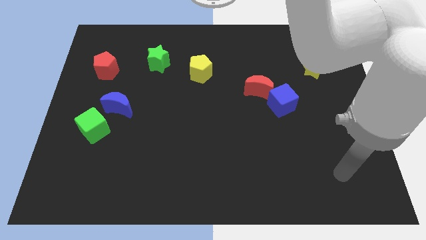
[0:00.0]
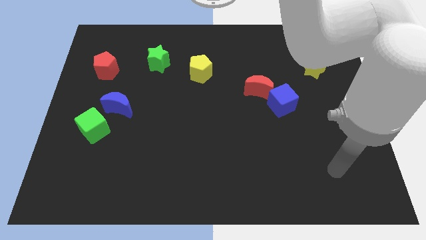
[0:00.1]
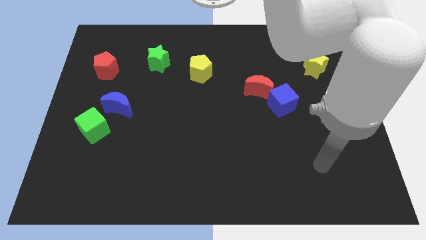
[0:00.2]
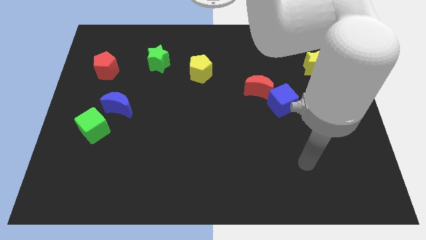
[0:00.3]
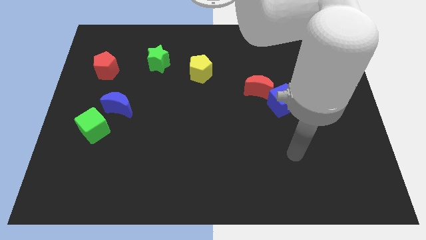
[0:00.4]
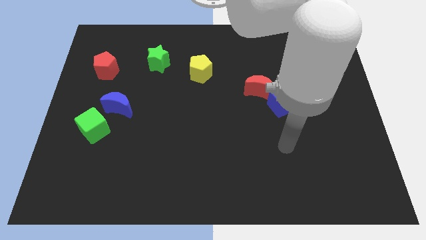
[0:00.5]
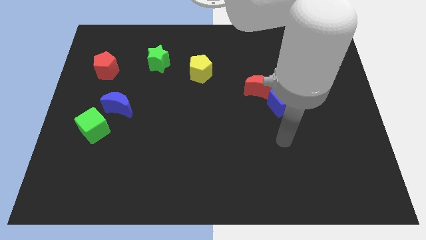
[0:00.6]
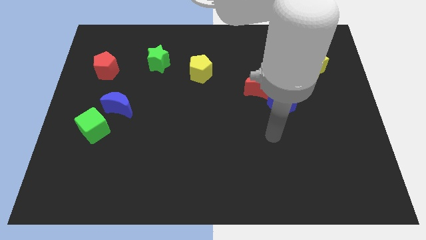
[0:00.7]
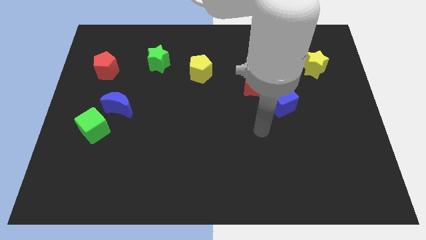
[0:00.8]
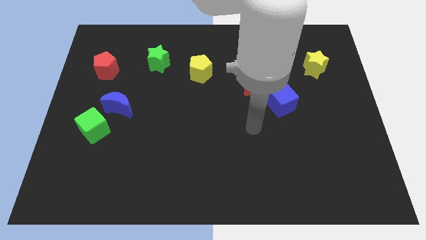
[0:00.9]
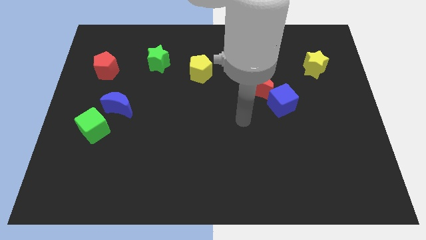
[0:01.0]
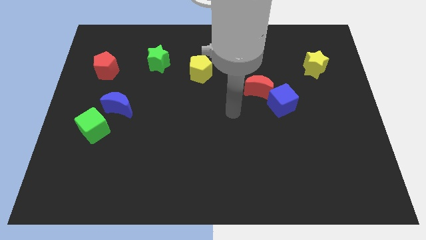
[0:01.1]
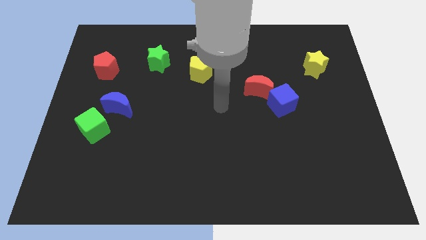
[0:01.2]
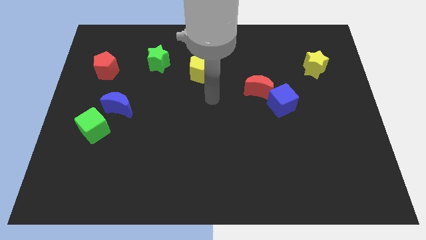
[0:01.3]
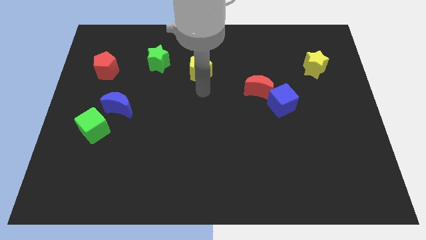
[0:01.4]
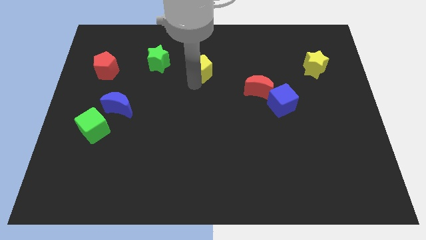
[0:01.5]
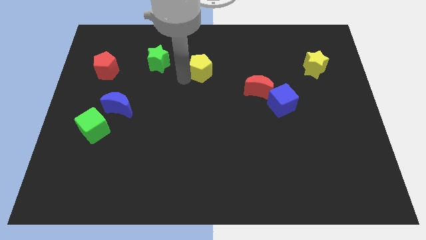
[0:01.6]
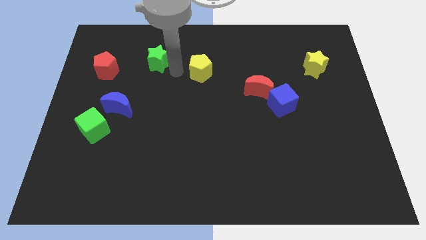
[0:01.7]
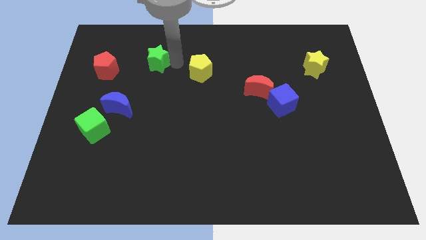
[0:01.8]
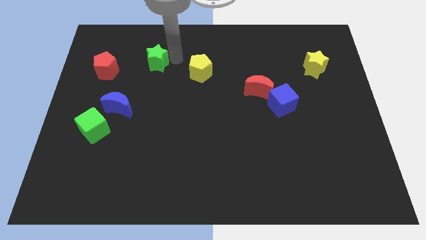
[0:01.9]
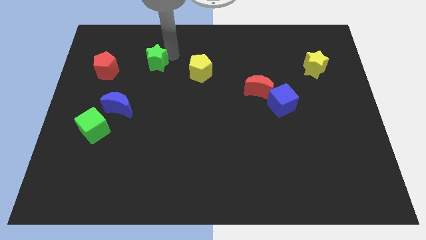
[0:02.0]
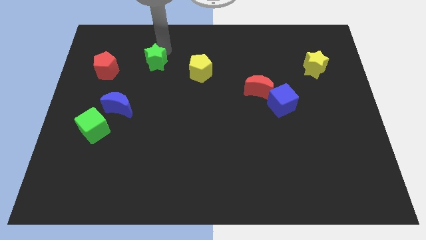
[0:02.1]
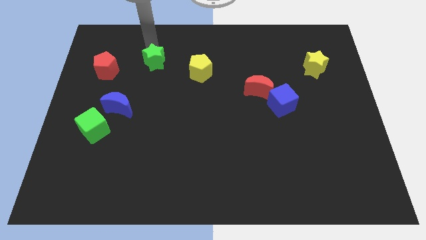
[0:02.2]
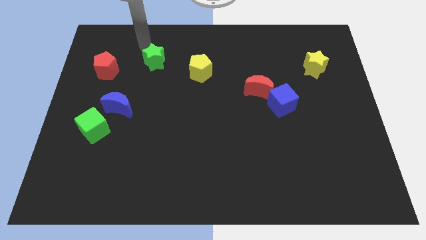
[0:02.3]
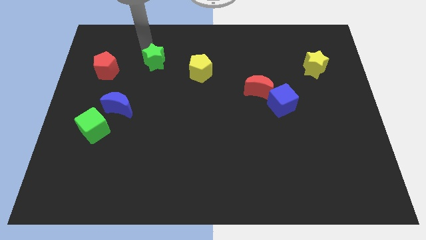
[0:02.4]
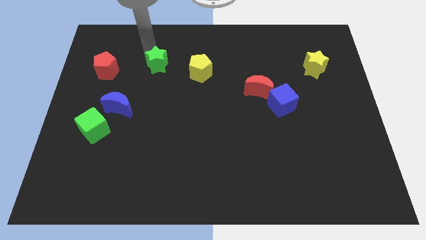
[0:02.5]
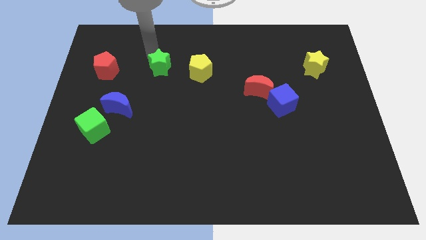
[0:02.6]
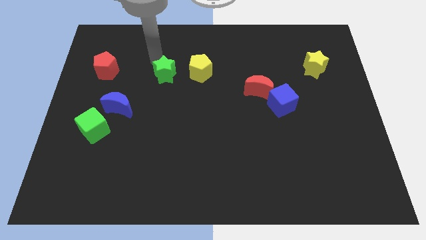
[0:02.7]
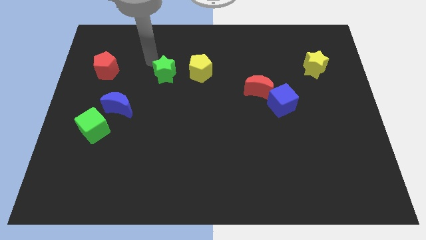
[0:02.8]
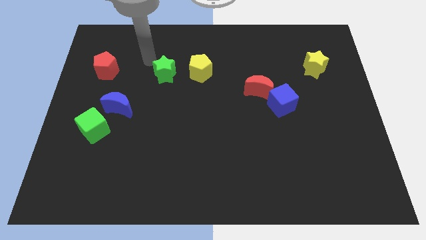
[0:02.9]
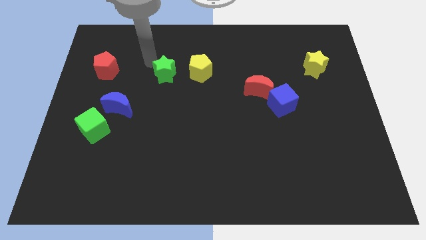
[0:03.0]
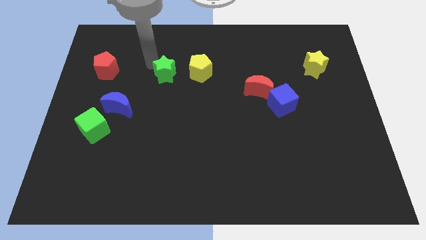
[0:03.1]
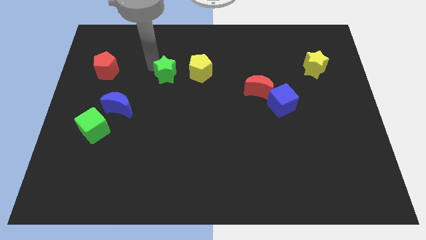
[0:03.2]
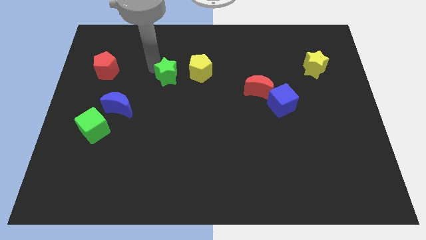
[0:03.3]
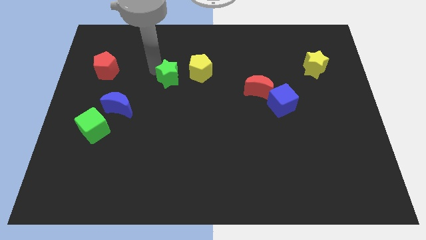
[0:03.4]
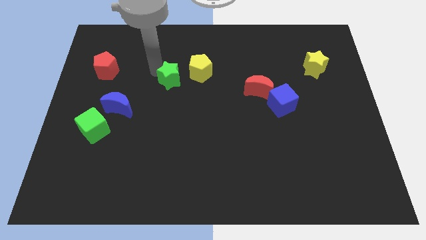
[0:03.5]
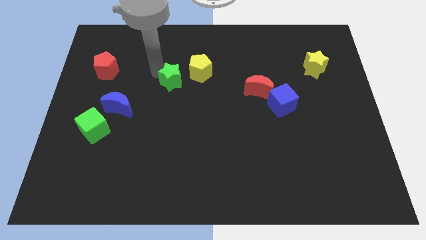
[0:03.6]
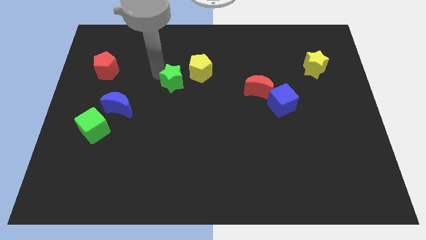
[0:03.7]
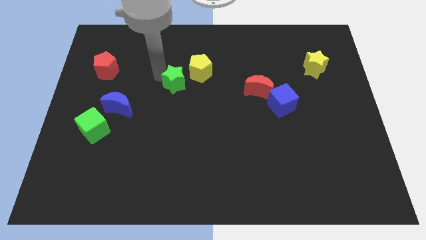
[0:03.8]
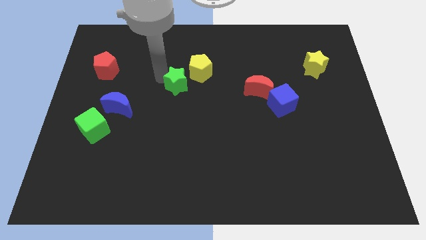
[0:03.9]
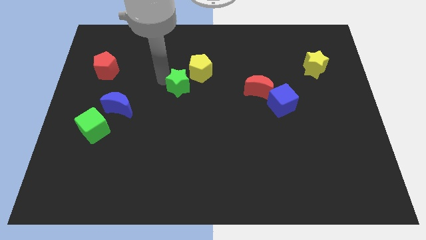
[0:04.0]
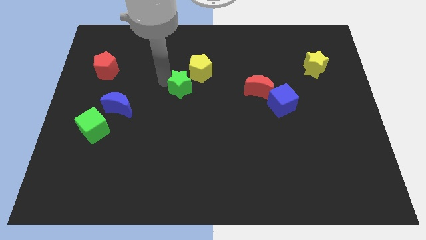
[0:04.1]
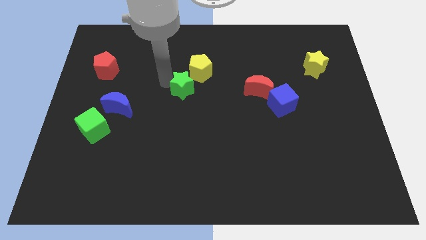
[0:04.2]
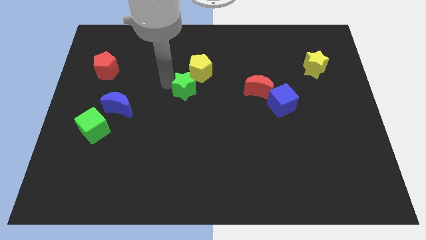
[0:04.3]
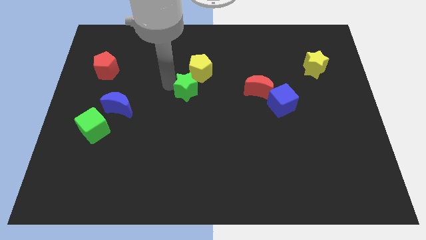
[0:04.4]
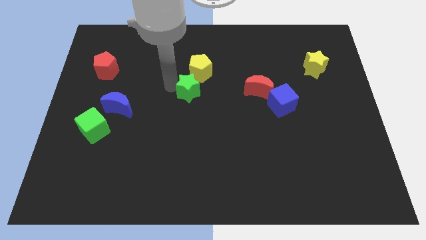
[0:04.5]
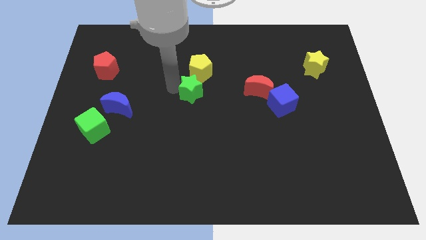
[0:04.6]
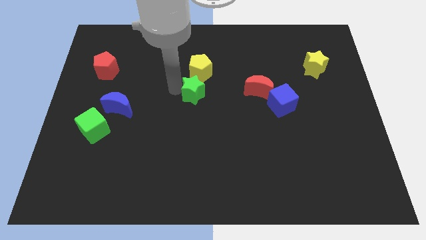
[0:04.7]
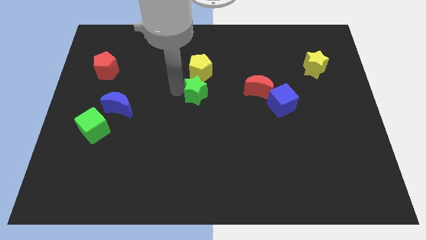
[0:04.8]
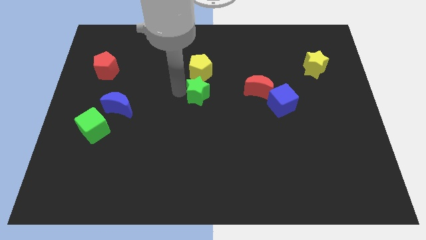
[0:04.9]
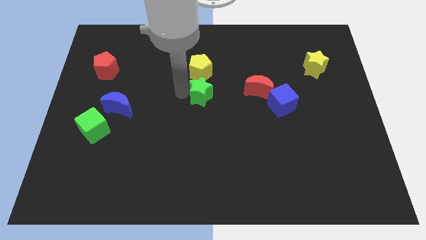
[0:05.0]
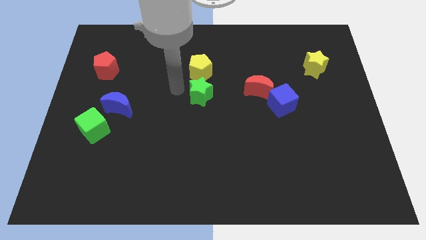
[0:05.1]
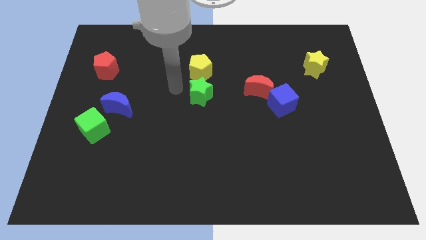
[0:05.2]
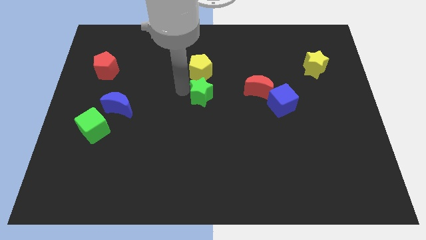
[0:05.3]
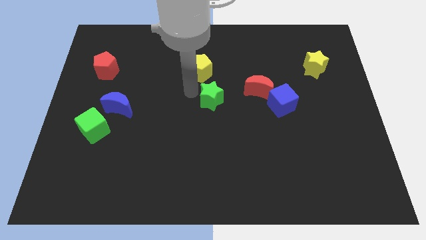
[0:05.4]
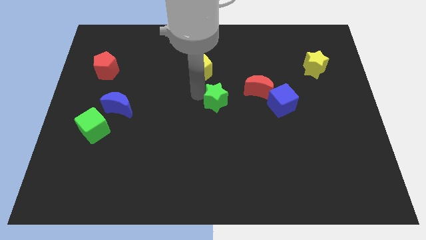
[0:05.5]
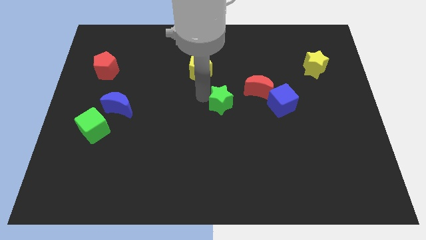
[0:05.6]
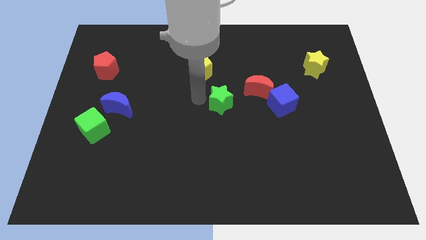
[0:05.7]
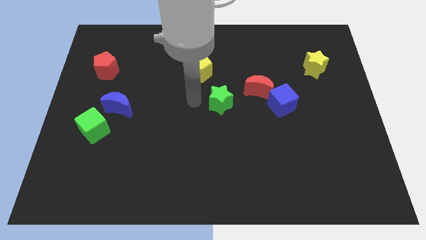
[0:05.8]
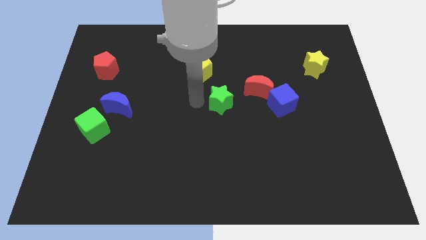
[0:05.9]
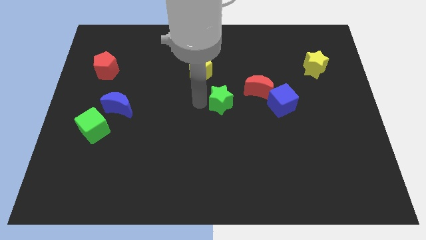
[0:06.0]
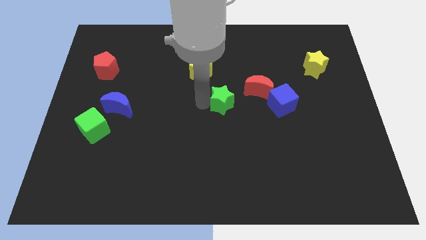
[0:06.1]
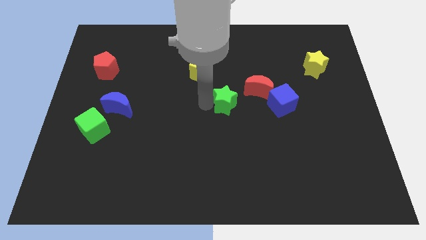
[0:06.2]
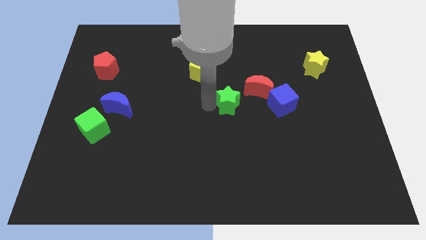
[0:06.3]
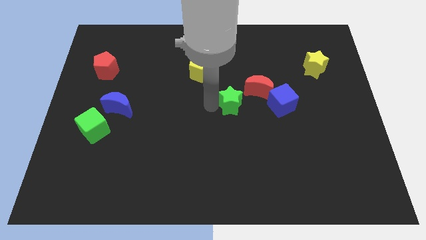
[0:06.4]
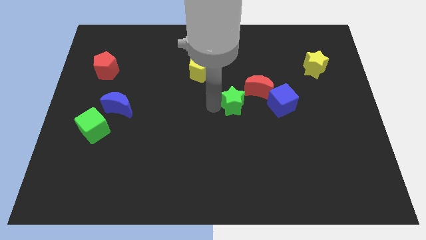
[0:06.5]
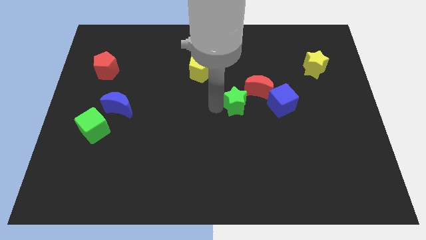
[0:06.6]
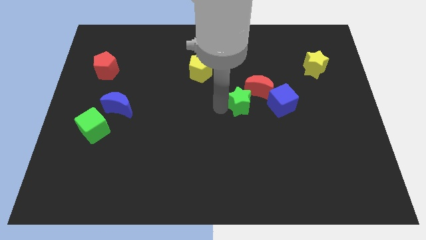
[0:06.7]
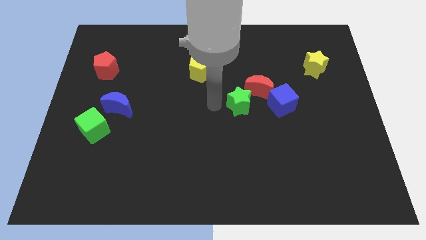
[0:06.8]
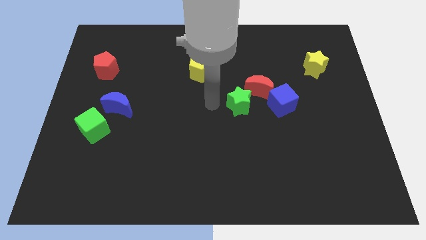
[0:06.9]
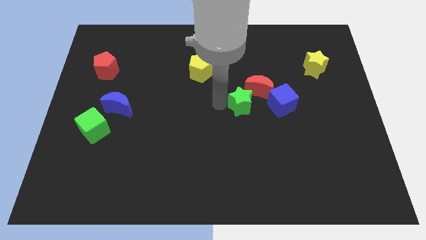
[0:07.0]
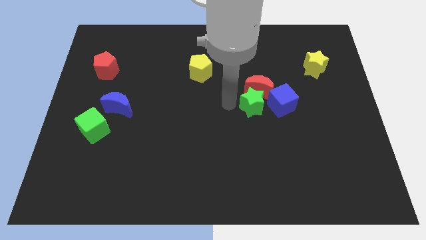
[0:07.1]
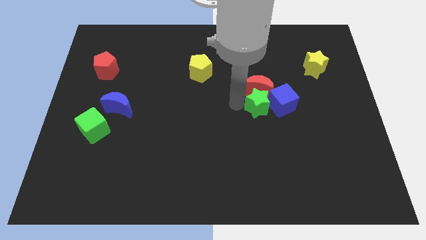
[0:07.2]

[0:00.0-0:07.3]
push the green star towards the blue cube

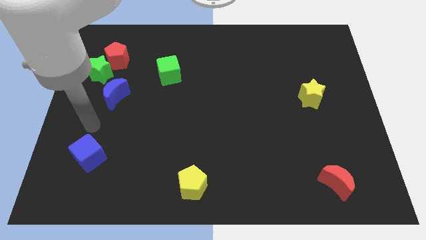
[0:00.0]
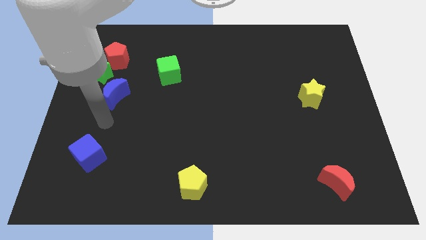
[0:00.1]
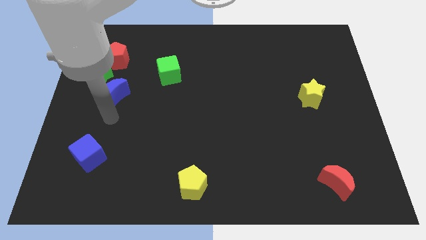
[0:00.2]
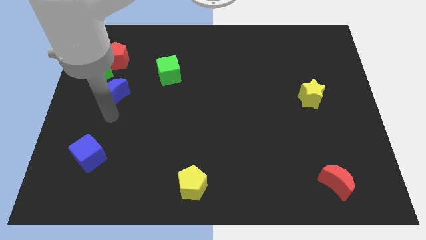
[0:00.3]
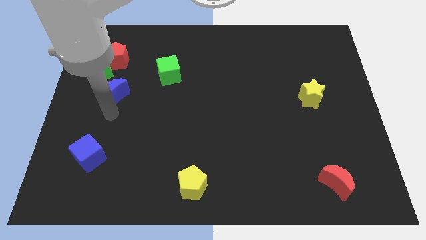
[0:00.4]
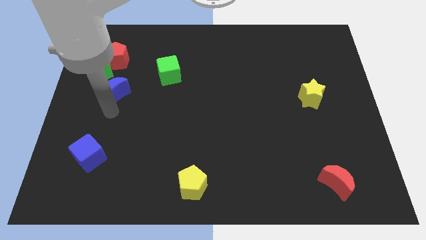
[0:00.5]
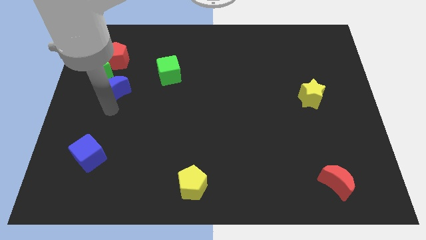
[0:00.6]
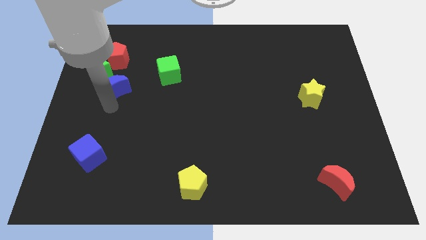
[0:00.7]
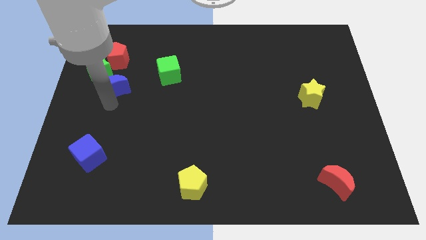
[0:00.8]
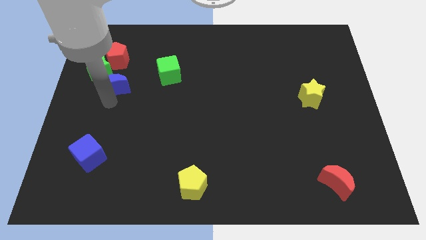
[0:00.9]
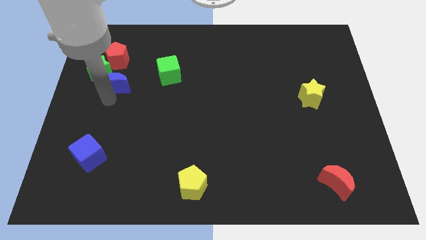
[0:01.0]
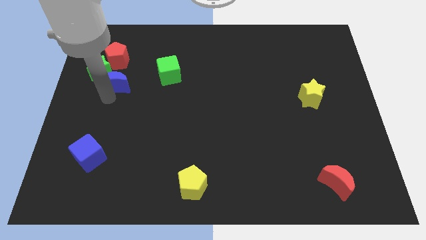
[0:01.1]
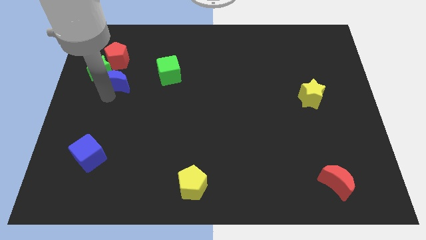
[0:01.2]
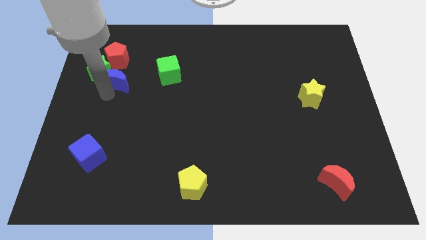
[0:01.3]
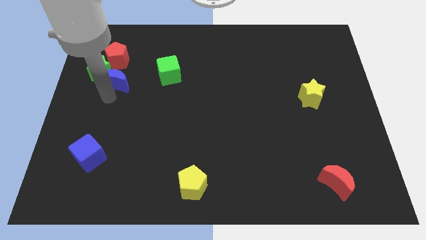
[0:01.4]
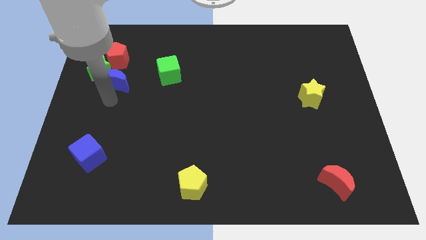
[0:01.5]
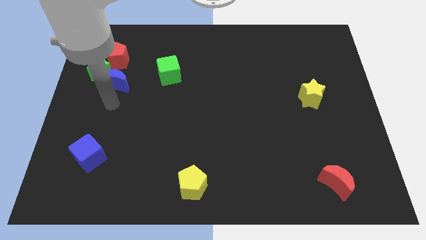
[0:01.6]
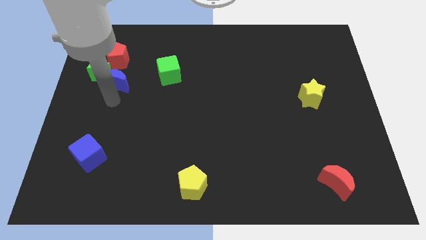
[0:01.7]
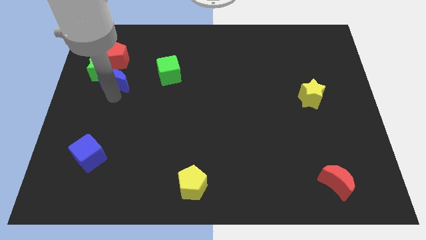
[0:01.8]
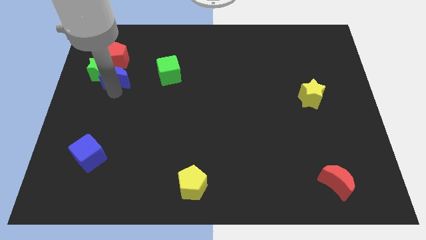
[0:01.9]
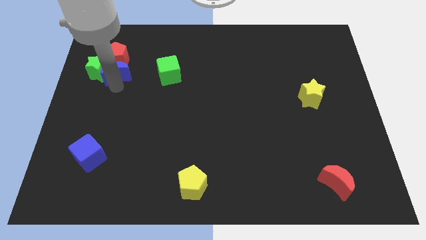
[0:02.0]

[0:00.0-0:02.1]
move the blue moon towards the red pentagon
